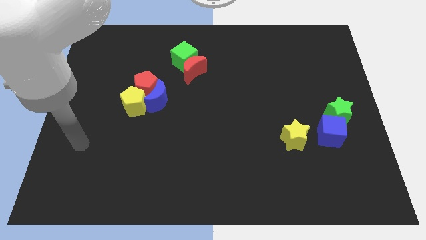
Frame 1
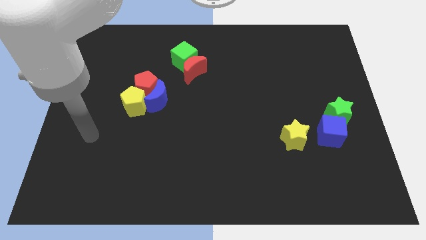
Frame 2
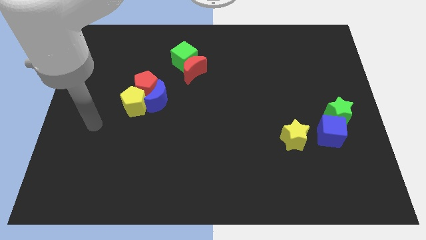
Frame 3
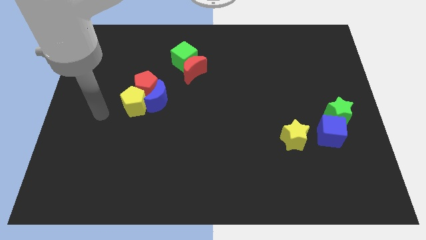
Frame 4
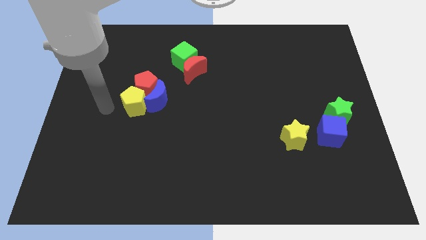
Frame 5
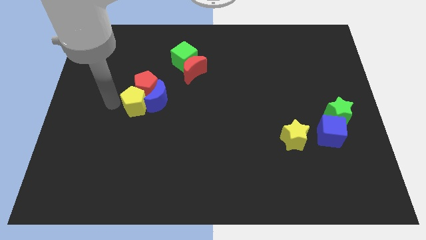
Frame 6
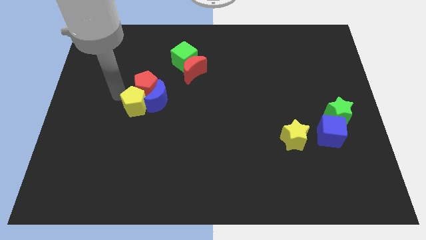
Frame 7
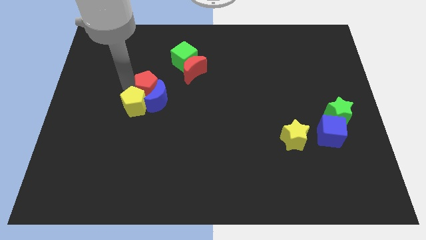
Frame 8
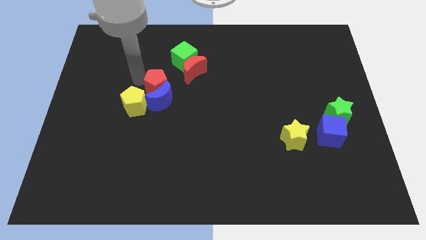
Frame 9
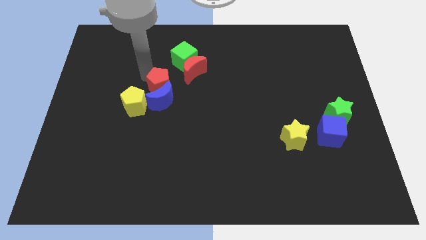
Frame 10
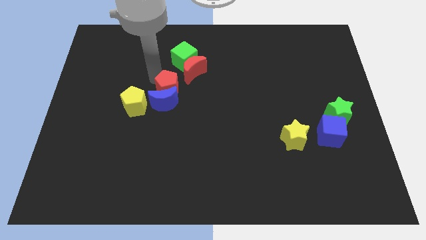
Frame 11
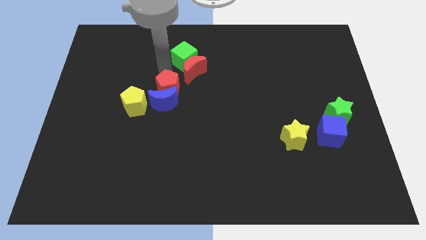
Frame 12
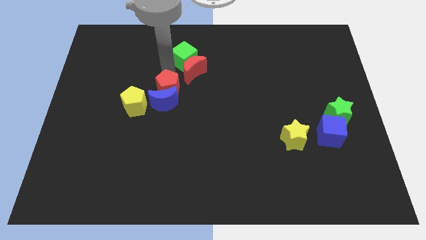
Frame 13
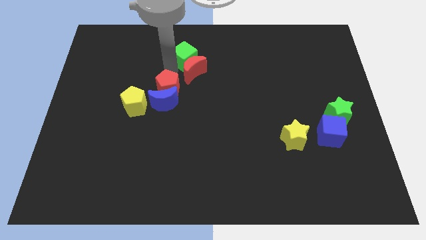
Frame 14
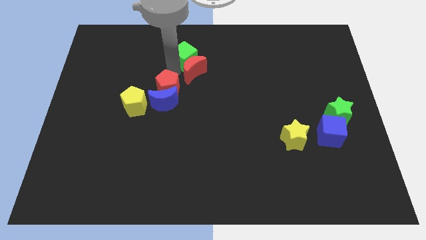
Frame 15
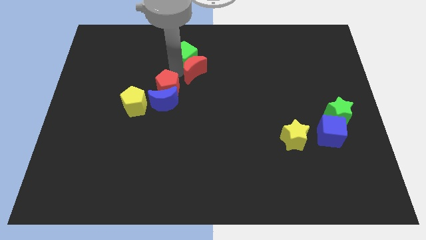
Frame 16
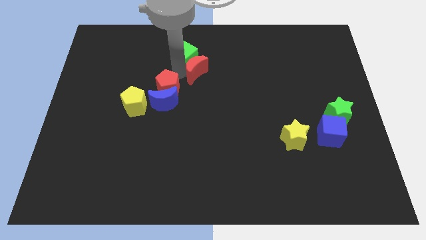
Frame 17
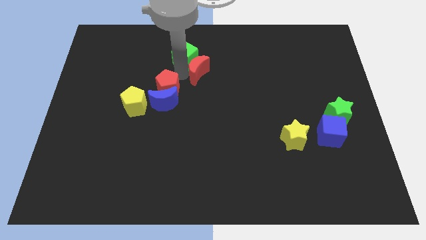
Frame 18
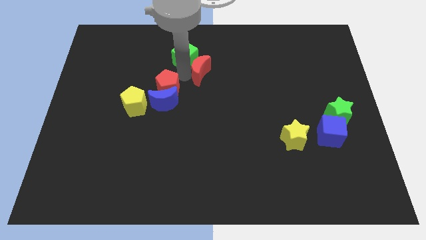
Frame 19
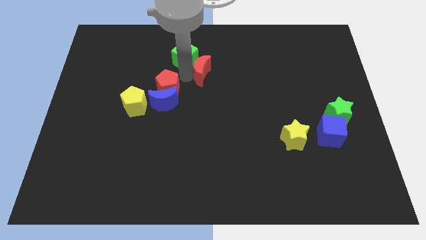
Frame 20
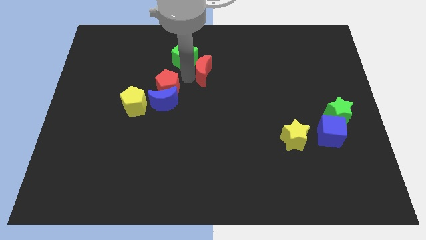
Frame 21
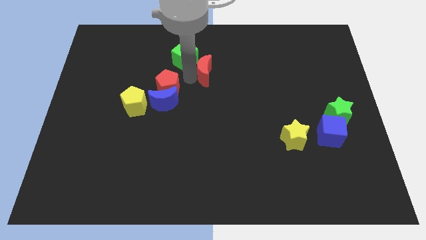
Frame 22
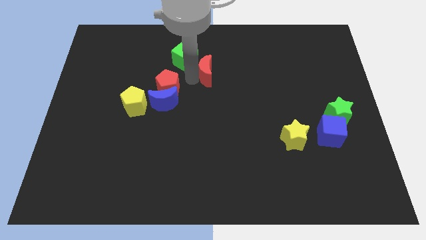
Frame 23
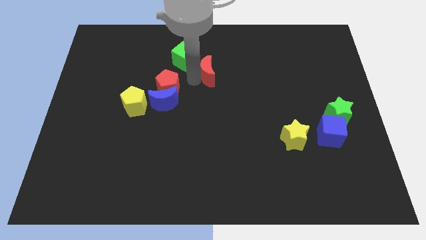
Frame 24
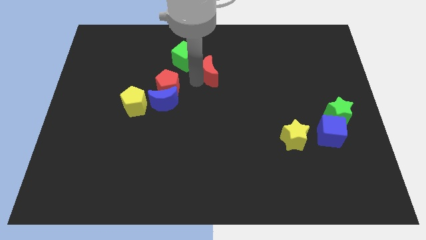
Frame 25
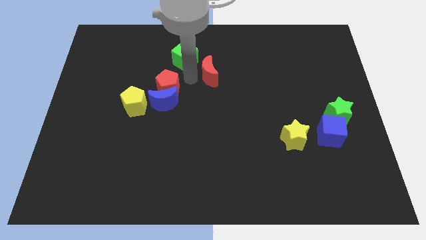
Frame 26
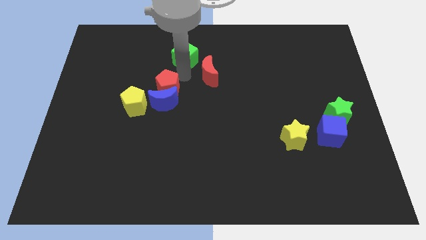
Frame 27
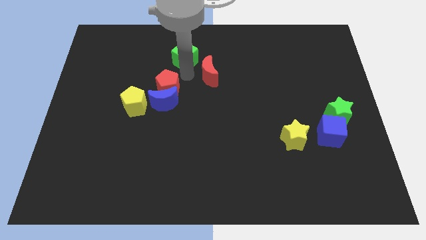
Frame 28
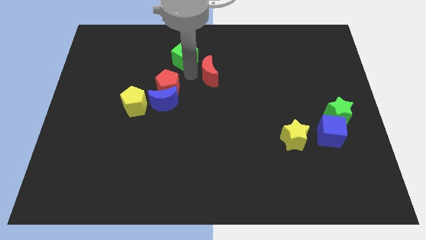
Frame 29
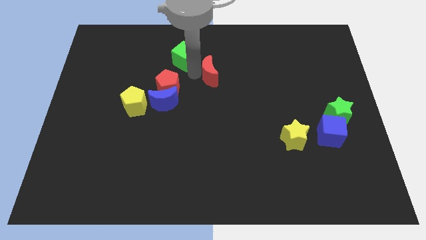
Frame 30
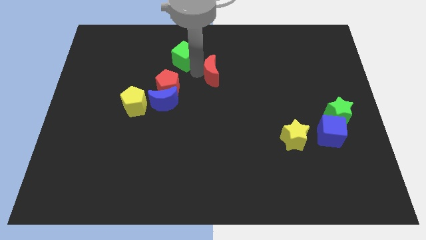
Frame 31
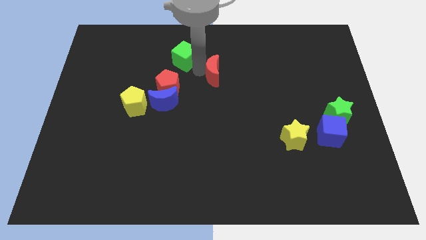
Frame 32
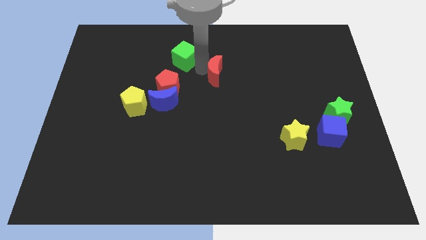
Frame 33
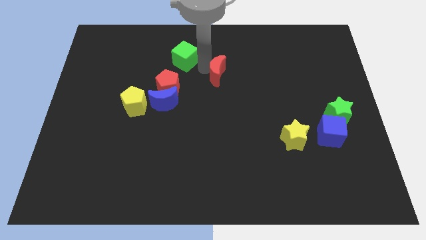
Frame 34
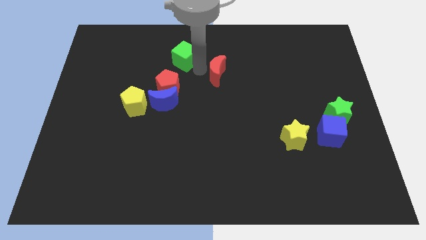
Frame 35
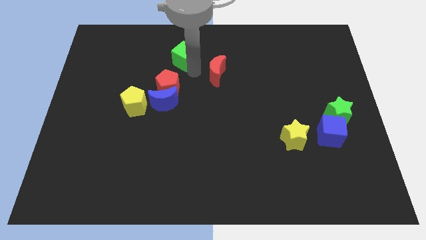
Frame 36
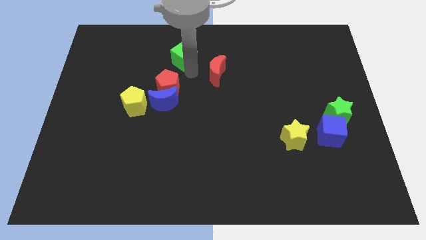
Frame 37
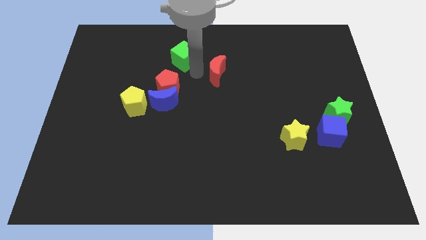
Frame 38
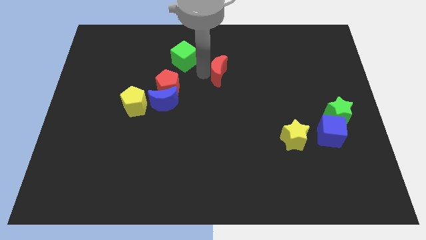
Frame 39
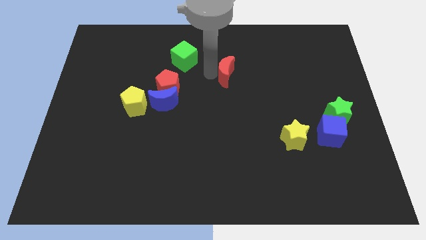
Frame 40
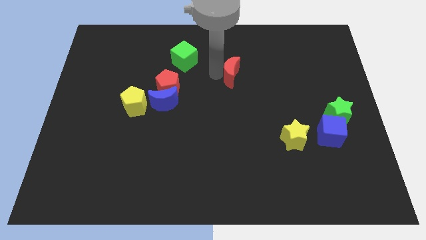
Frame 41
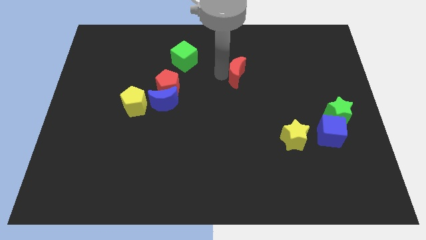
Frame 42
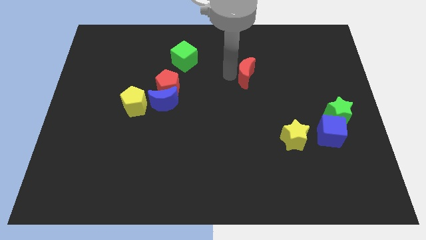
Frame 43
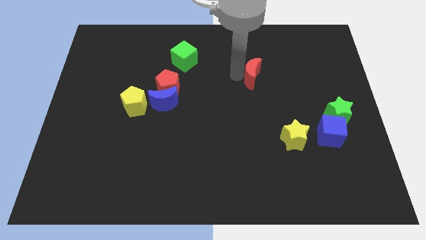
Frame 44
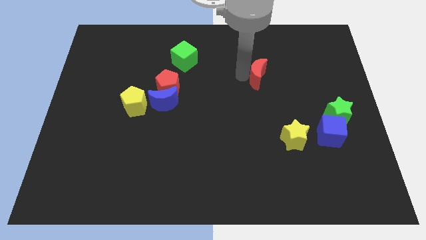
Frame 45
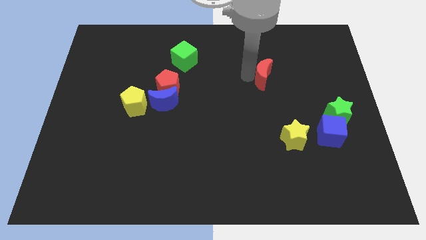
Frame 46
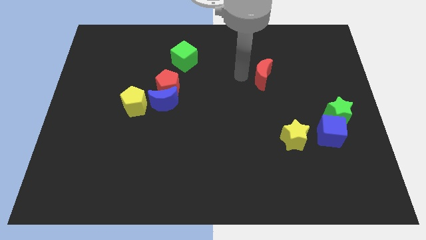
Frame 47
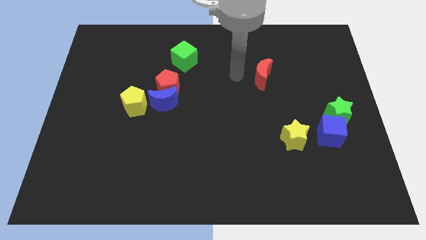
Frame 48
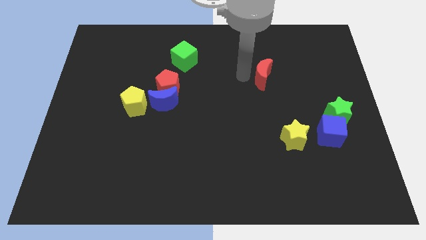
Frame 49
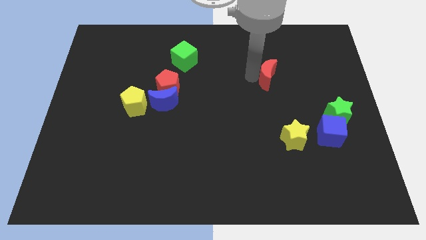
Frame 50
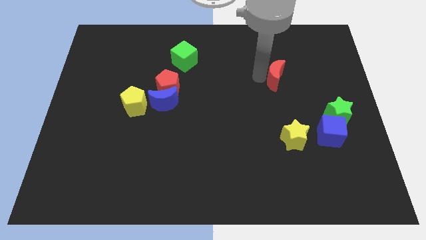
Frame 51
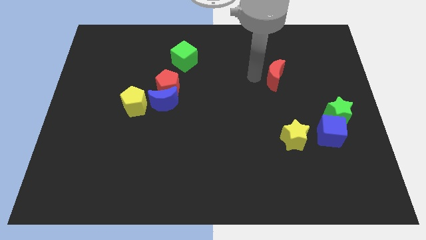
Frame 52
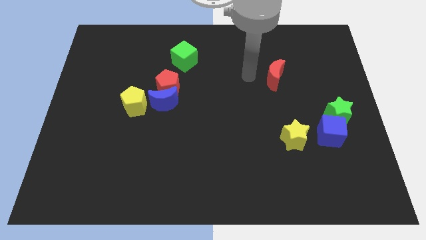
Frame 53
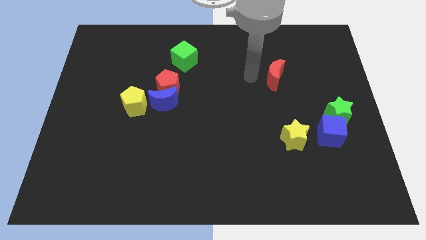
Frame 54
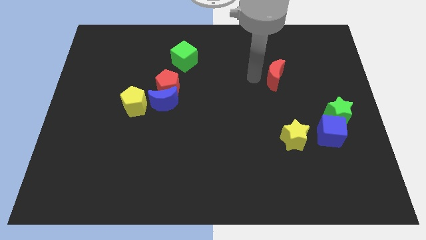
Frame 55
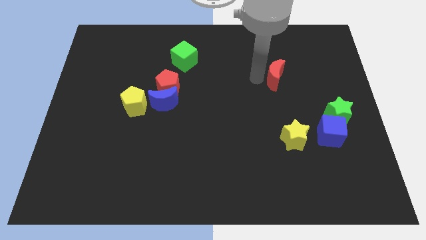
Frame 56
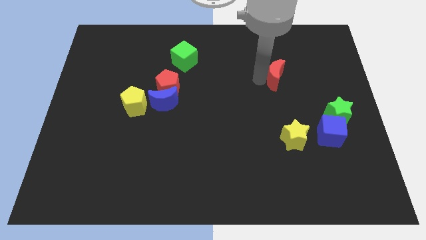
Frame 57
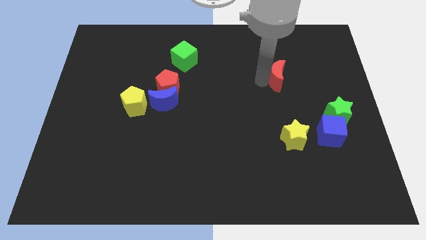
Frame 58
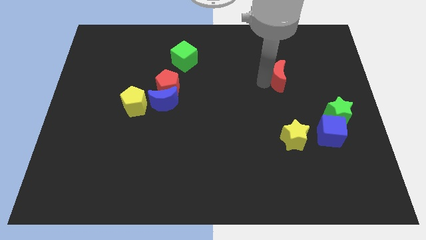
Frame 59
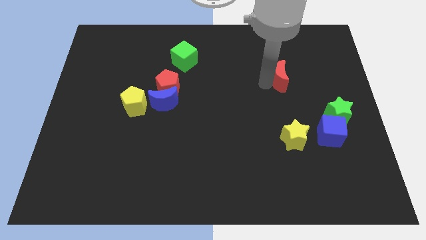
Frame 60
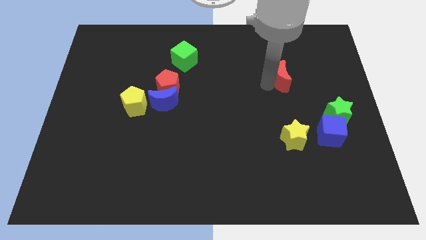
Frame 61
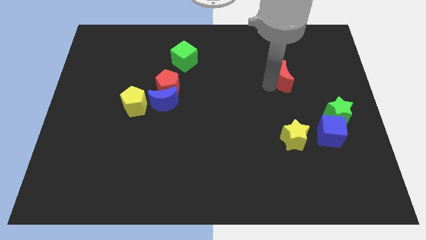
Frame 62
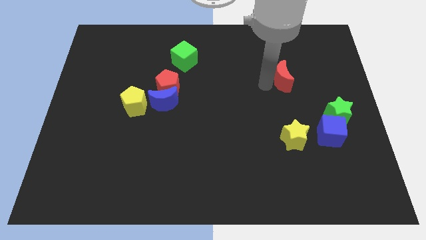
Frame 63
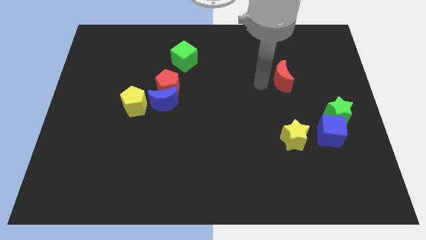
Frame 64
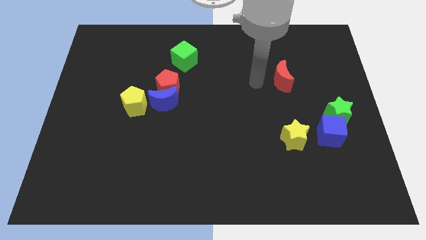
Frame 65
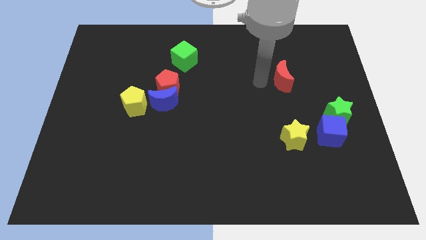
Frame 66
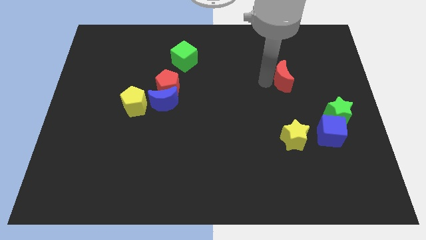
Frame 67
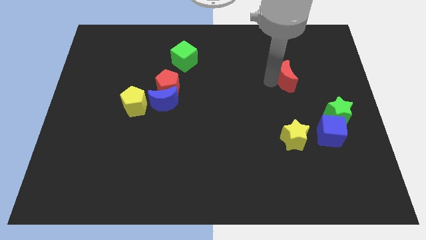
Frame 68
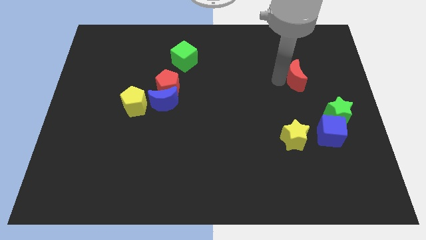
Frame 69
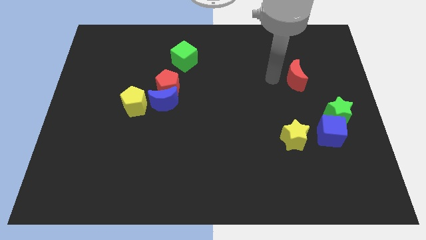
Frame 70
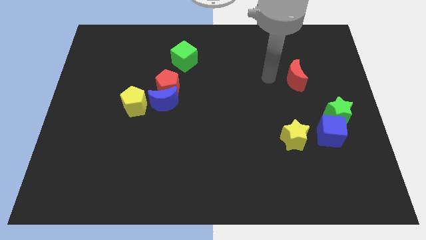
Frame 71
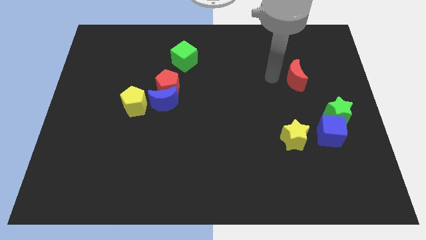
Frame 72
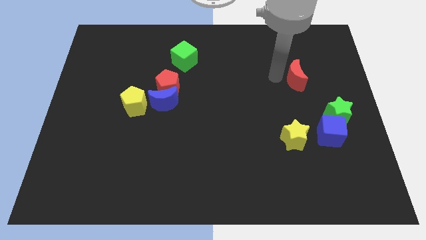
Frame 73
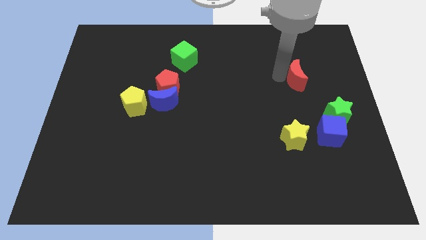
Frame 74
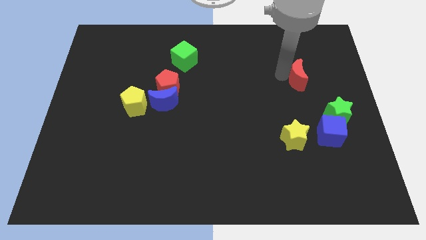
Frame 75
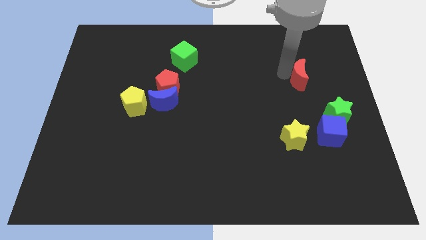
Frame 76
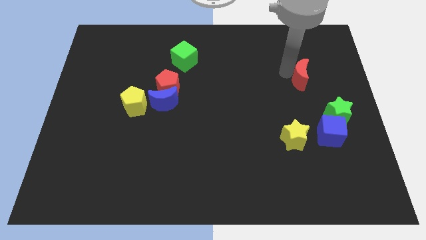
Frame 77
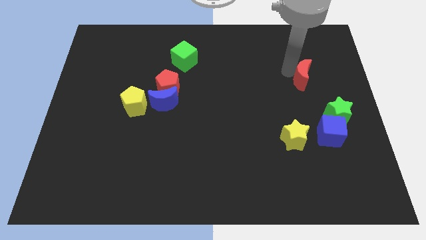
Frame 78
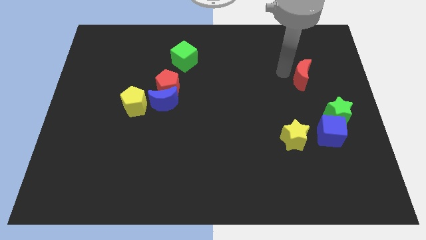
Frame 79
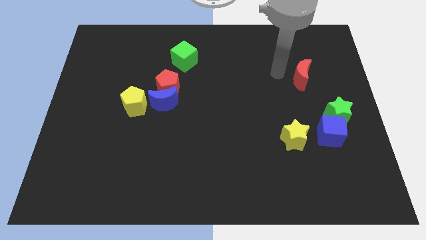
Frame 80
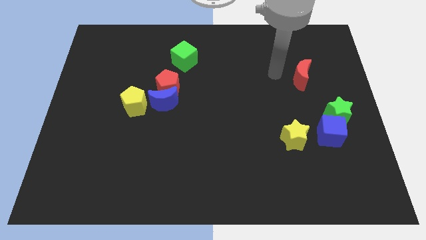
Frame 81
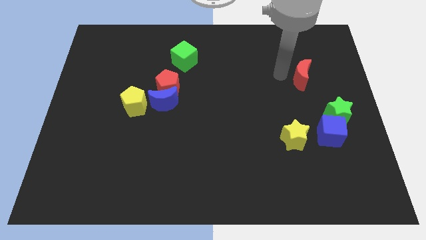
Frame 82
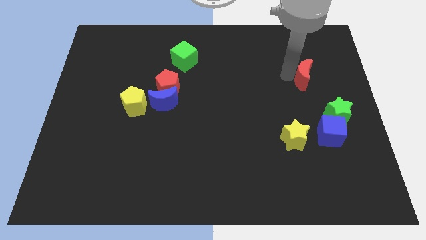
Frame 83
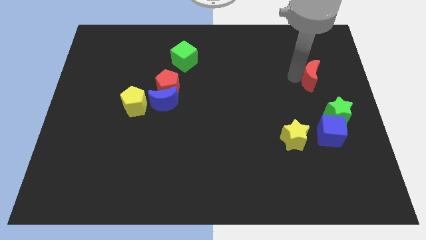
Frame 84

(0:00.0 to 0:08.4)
move the red moon to the top of the green star
